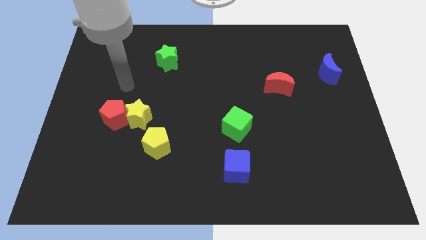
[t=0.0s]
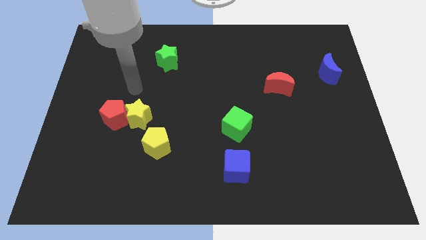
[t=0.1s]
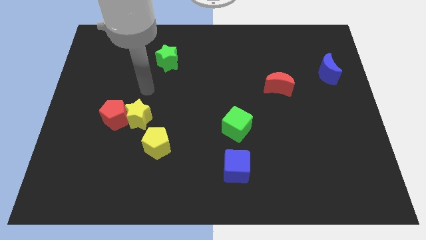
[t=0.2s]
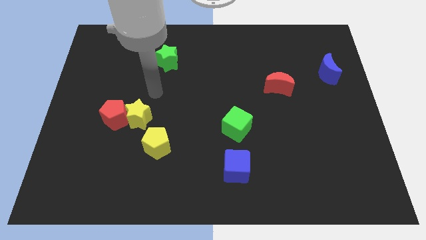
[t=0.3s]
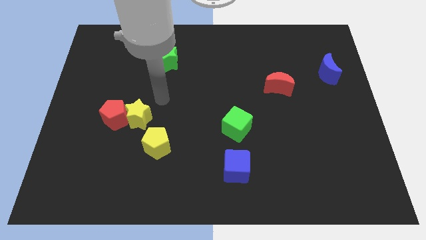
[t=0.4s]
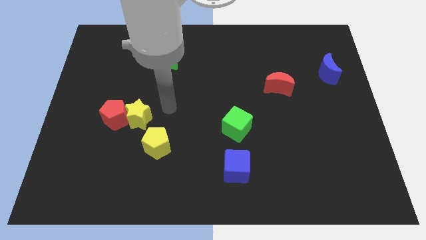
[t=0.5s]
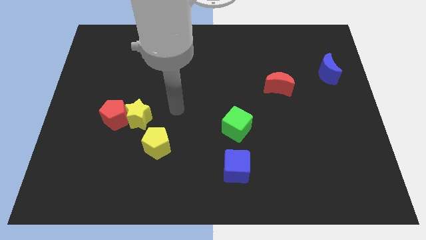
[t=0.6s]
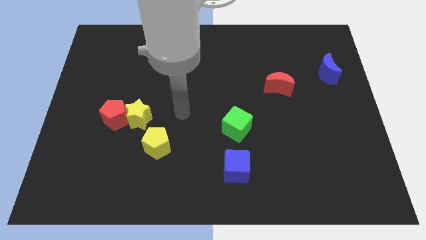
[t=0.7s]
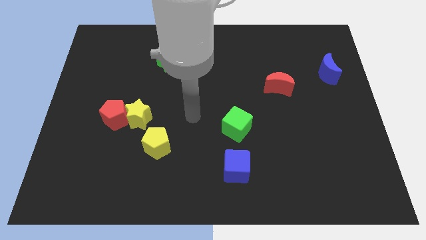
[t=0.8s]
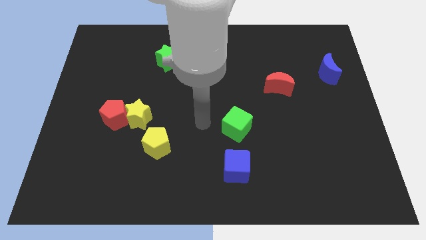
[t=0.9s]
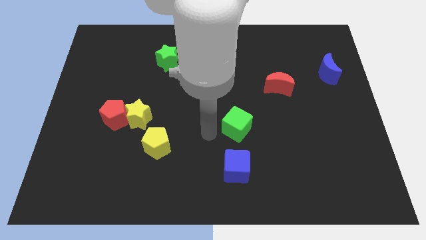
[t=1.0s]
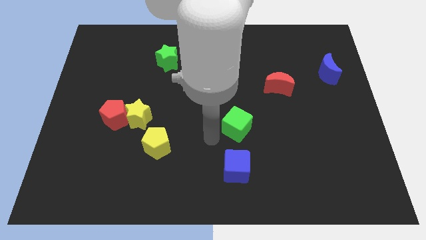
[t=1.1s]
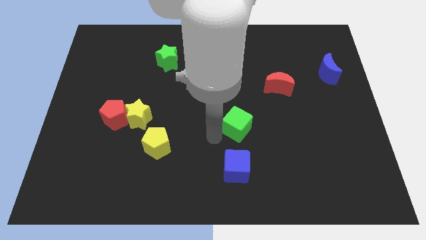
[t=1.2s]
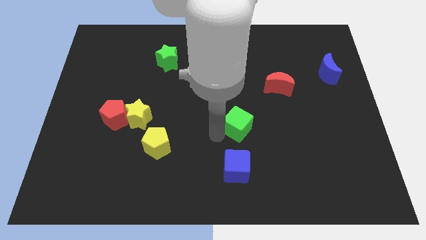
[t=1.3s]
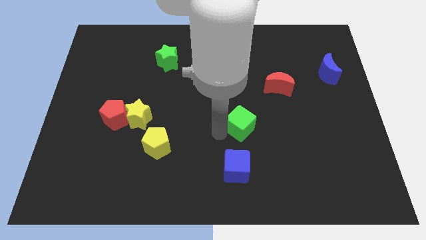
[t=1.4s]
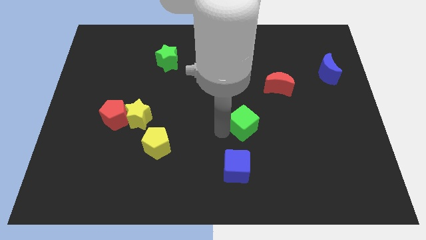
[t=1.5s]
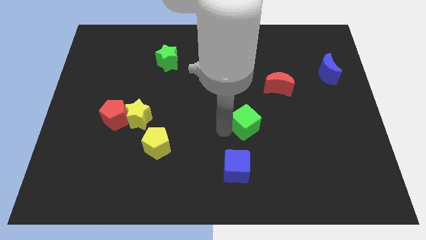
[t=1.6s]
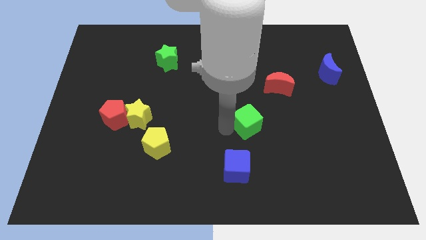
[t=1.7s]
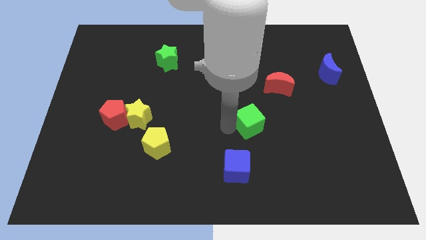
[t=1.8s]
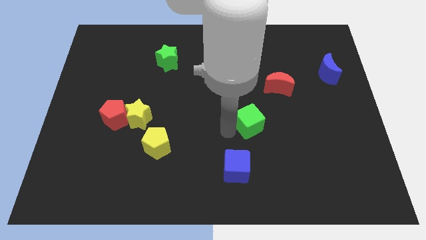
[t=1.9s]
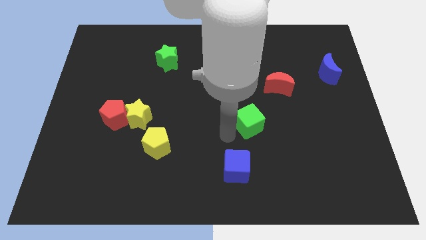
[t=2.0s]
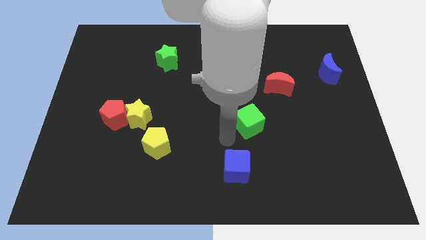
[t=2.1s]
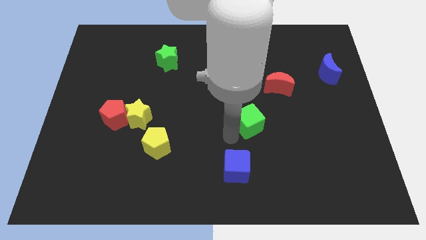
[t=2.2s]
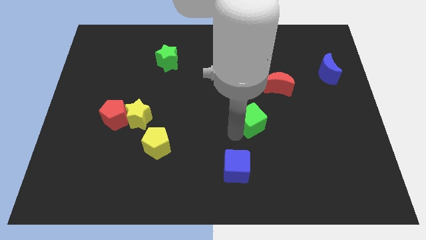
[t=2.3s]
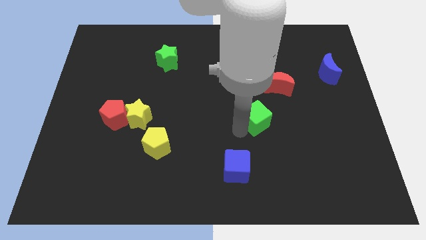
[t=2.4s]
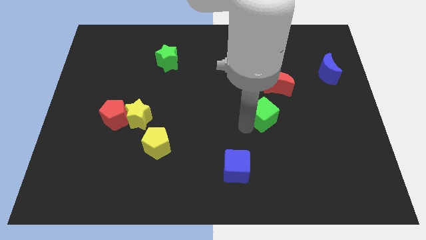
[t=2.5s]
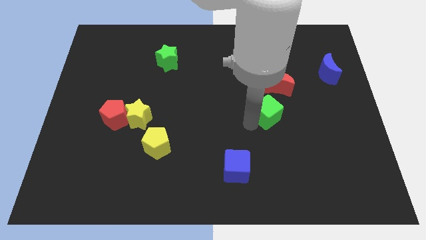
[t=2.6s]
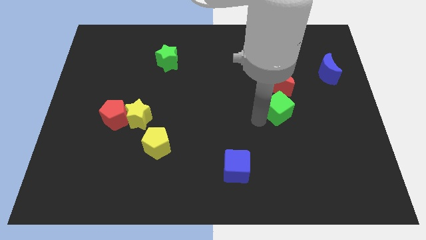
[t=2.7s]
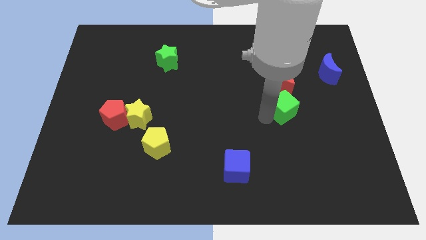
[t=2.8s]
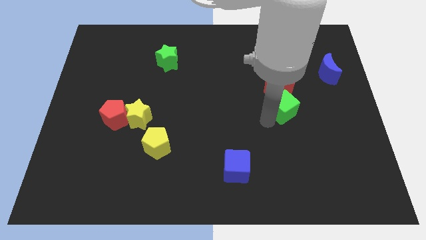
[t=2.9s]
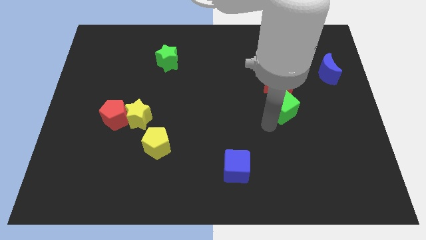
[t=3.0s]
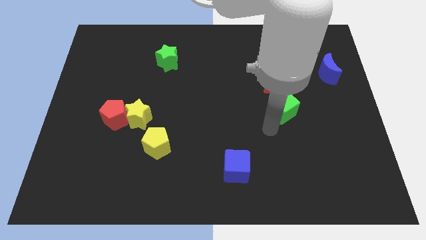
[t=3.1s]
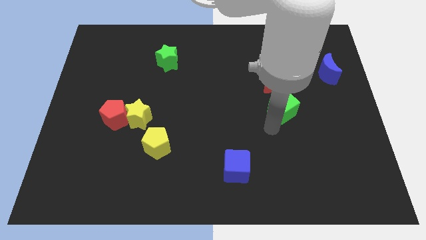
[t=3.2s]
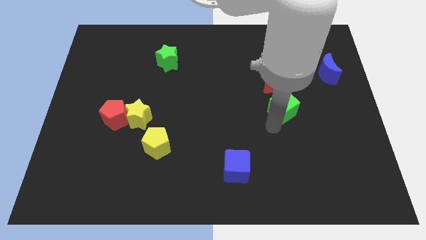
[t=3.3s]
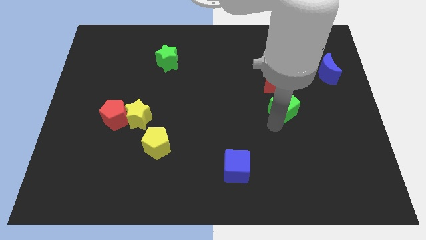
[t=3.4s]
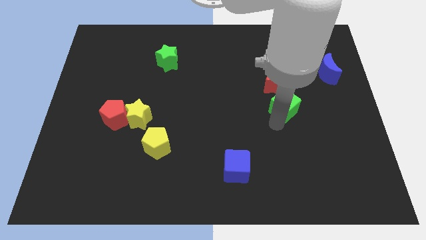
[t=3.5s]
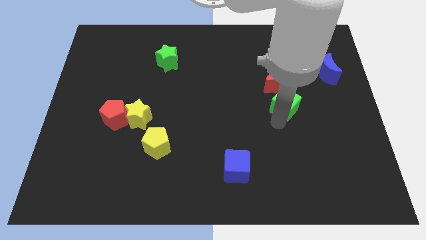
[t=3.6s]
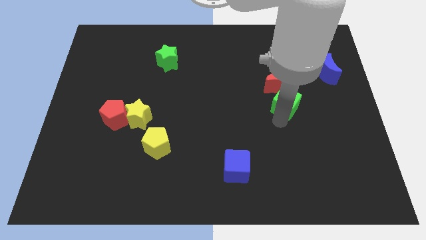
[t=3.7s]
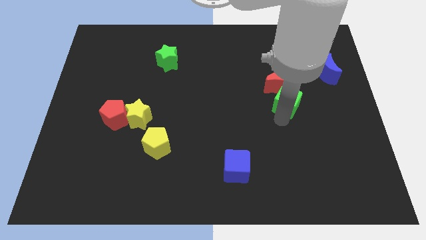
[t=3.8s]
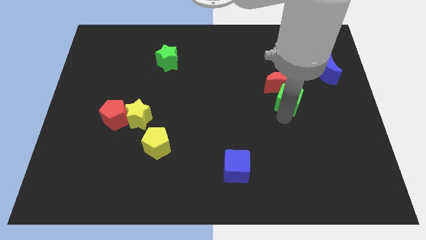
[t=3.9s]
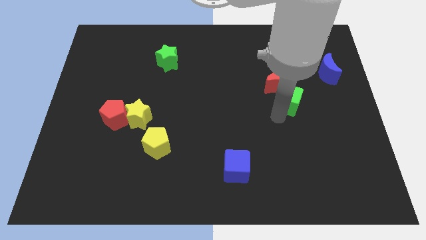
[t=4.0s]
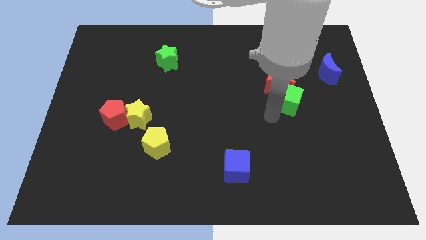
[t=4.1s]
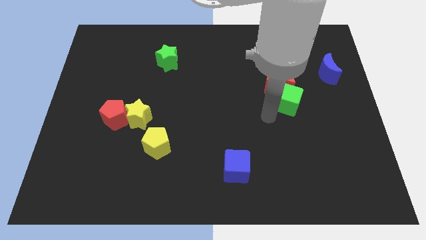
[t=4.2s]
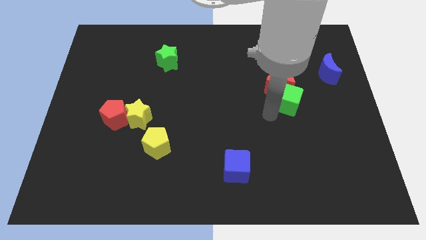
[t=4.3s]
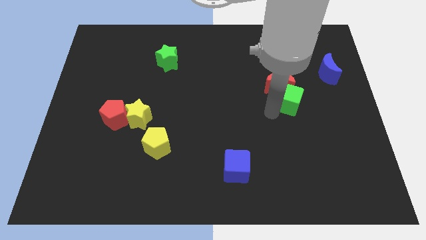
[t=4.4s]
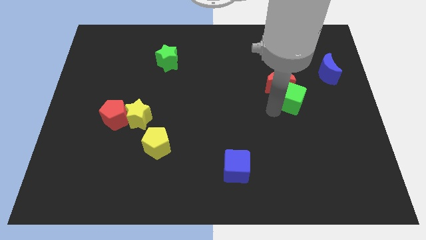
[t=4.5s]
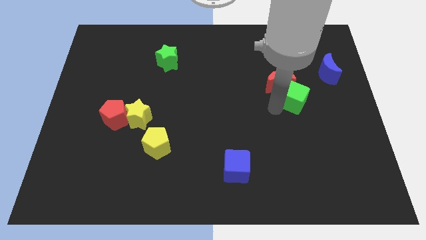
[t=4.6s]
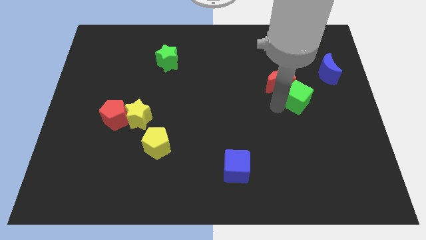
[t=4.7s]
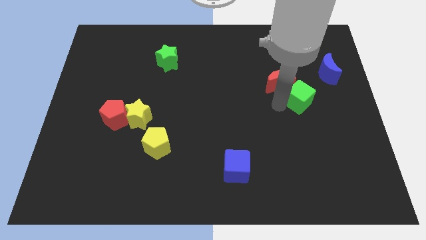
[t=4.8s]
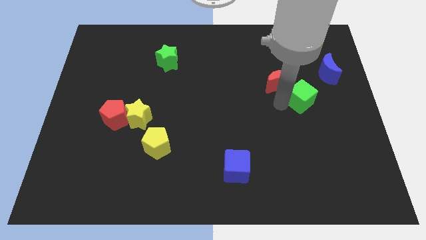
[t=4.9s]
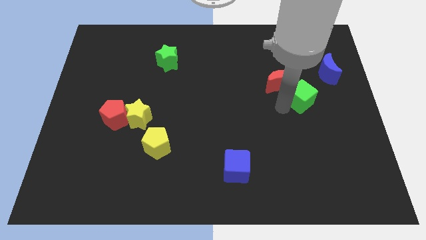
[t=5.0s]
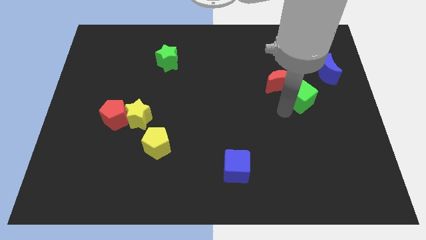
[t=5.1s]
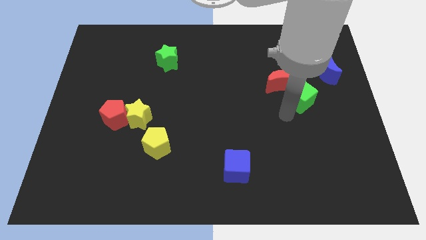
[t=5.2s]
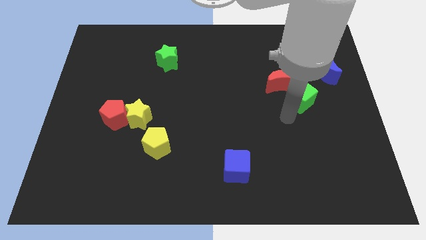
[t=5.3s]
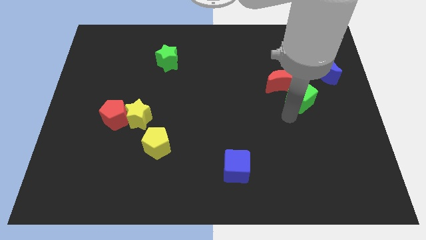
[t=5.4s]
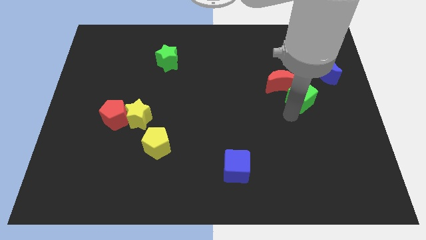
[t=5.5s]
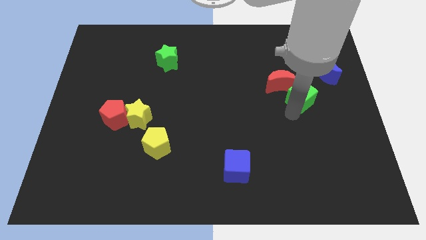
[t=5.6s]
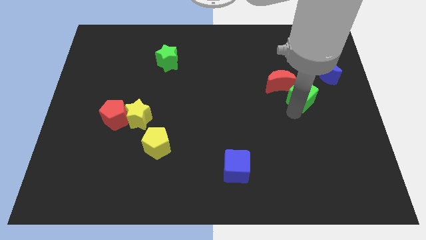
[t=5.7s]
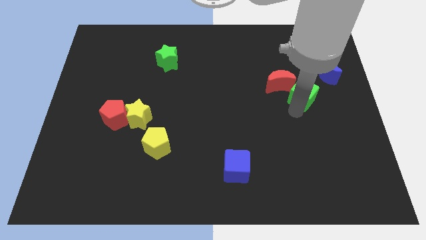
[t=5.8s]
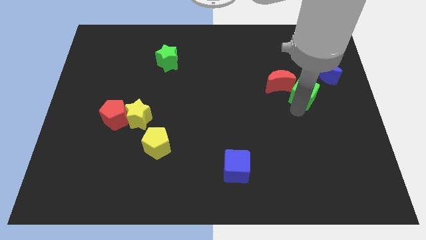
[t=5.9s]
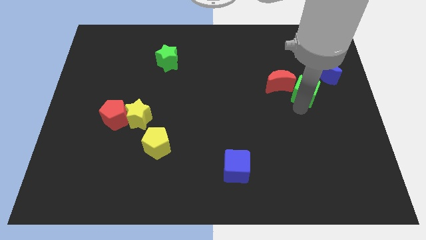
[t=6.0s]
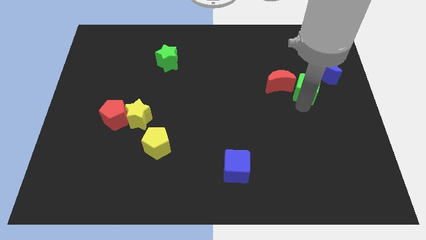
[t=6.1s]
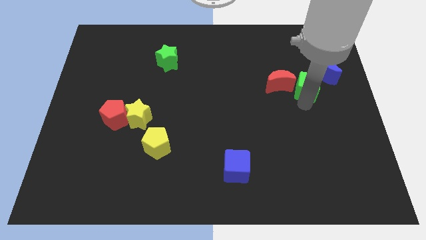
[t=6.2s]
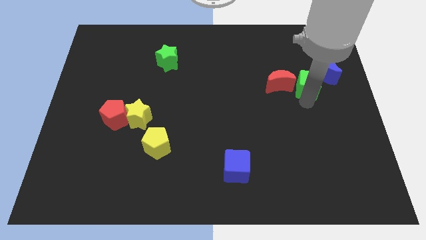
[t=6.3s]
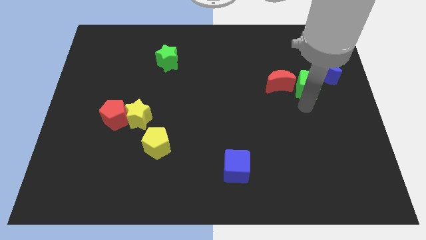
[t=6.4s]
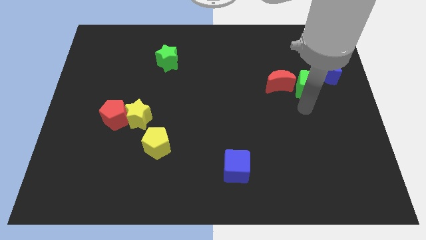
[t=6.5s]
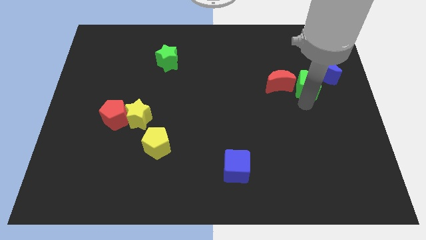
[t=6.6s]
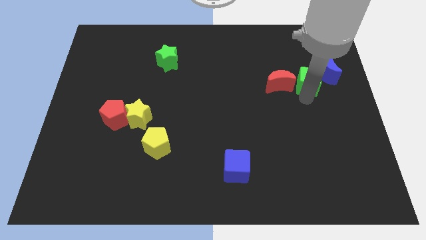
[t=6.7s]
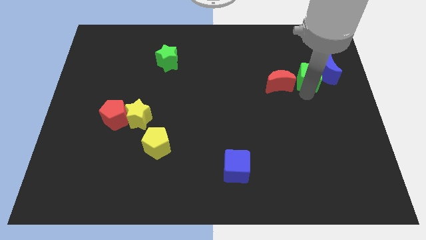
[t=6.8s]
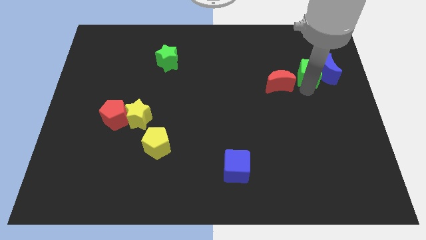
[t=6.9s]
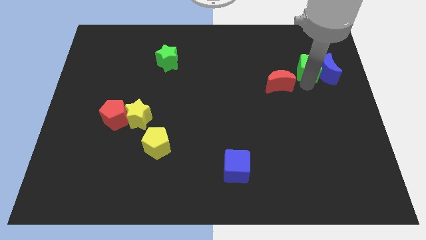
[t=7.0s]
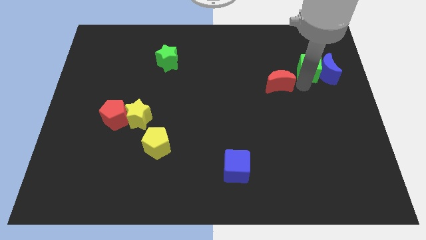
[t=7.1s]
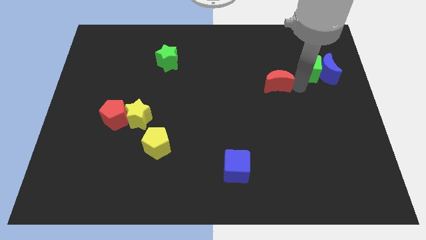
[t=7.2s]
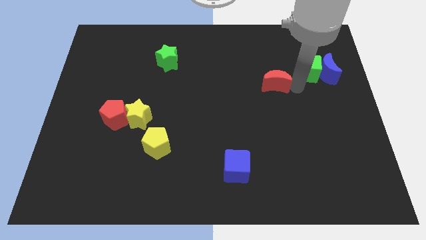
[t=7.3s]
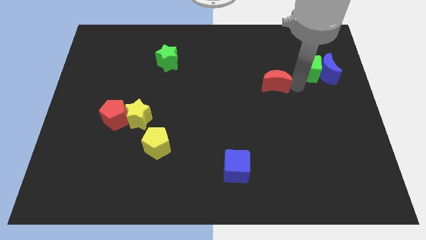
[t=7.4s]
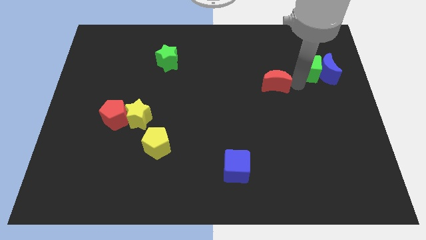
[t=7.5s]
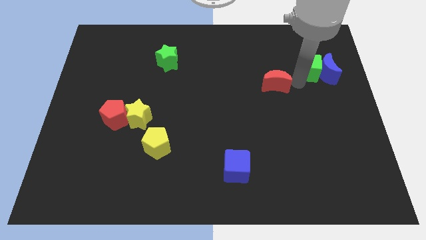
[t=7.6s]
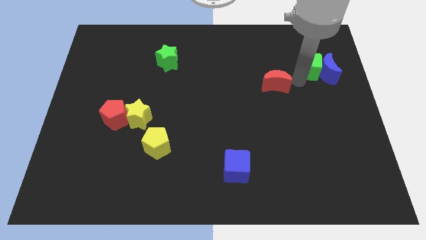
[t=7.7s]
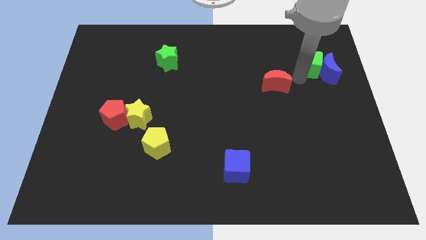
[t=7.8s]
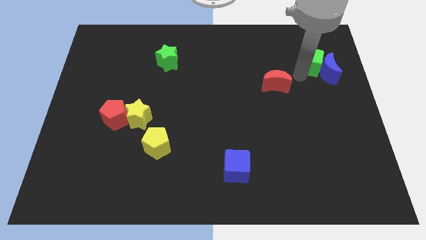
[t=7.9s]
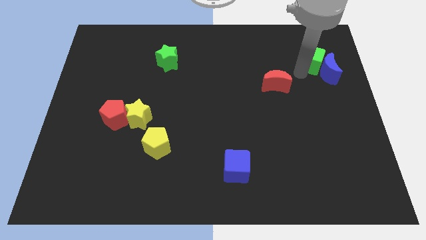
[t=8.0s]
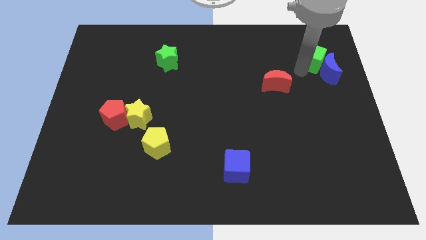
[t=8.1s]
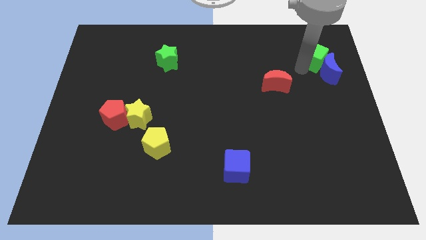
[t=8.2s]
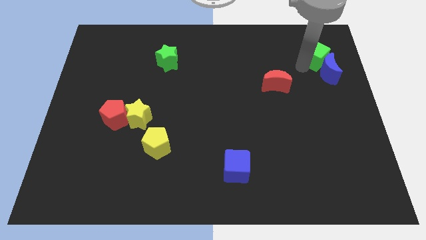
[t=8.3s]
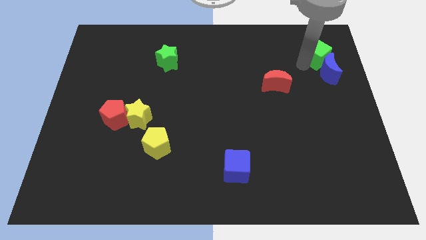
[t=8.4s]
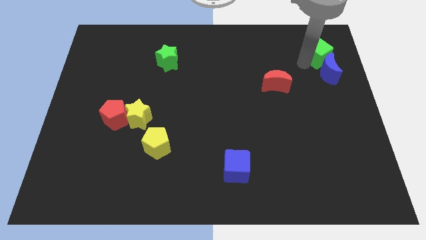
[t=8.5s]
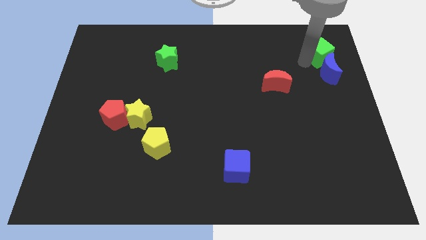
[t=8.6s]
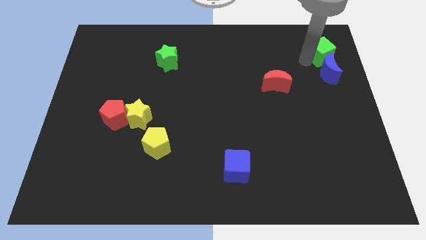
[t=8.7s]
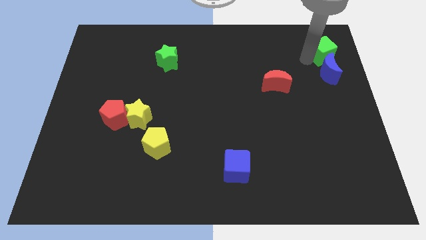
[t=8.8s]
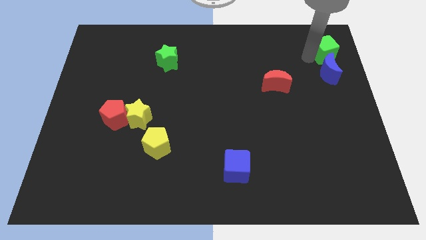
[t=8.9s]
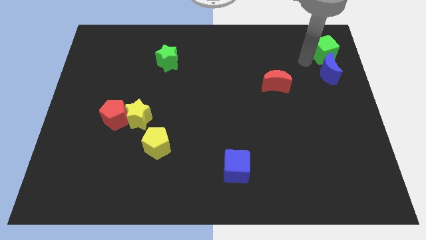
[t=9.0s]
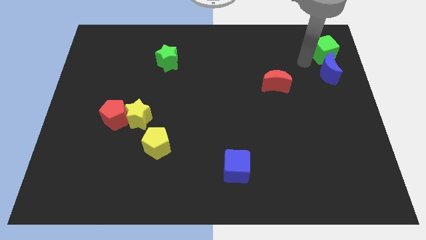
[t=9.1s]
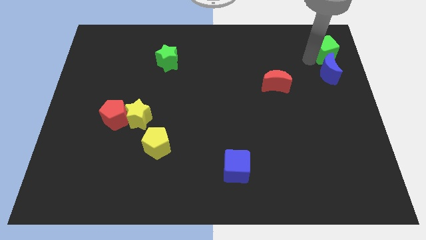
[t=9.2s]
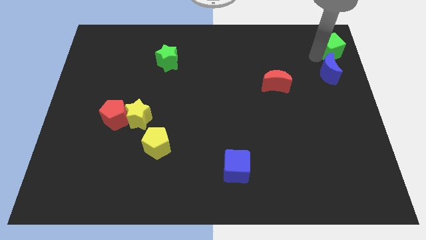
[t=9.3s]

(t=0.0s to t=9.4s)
push the green cube to the top right corner
